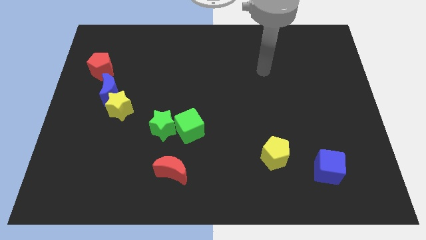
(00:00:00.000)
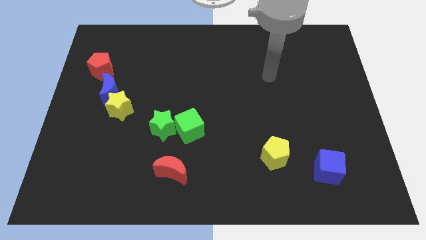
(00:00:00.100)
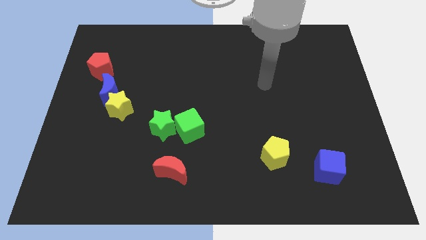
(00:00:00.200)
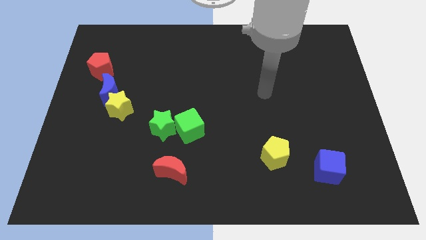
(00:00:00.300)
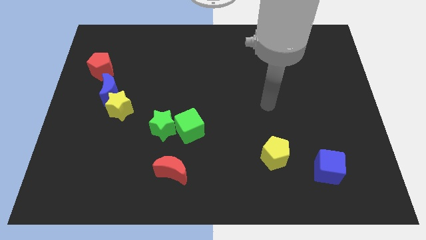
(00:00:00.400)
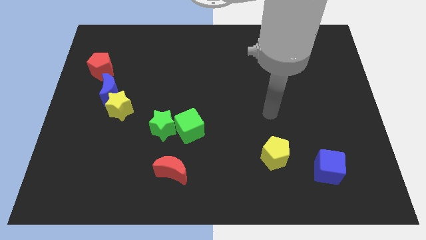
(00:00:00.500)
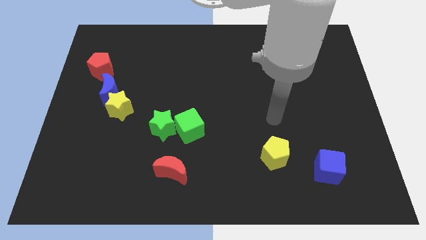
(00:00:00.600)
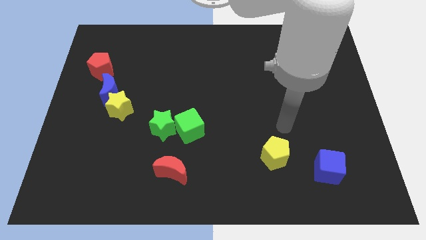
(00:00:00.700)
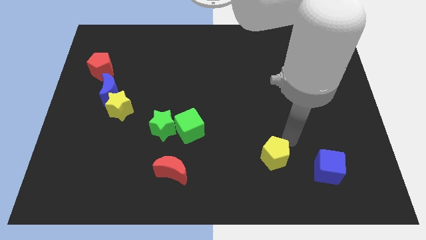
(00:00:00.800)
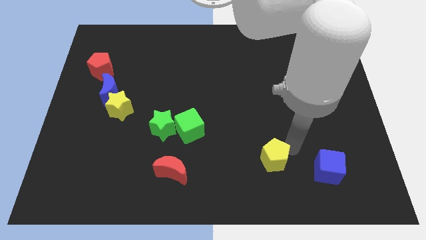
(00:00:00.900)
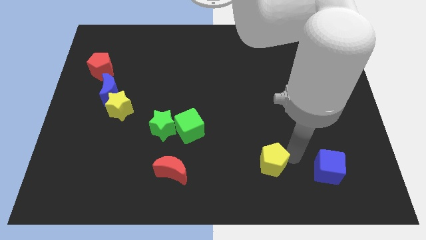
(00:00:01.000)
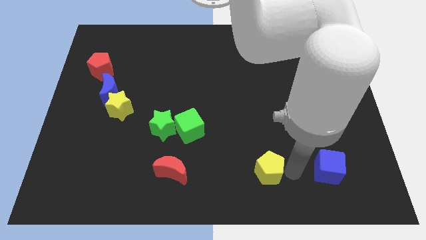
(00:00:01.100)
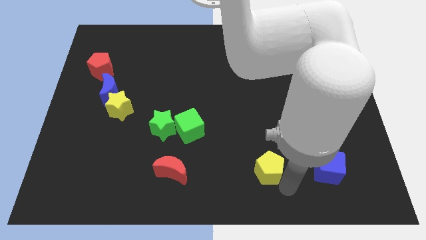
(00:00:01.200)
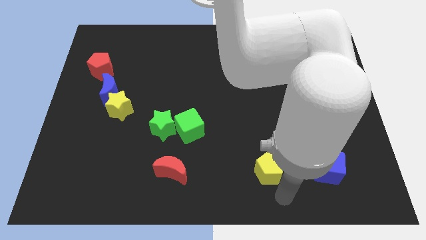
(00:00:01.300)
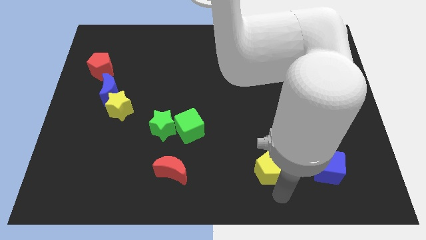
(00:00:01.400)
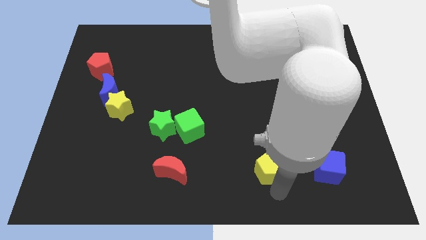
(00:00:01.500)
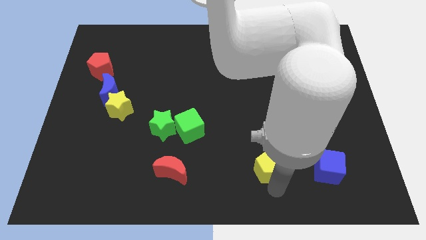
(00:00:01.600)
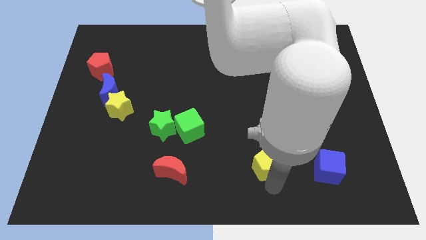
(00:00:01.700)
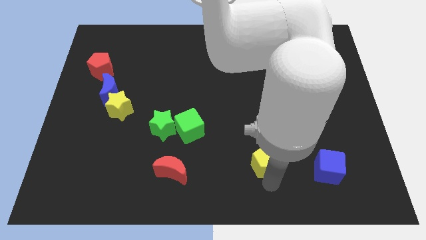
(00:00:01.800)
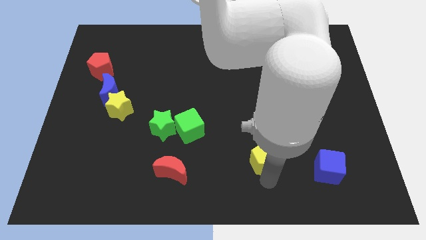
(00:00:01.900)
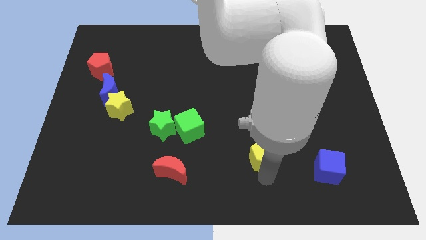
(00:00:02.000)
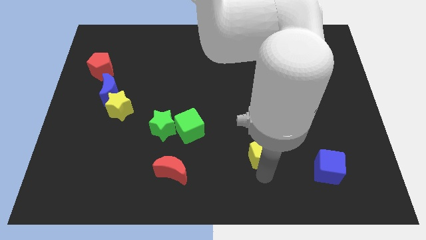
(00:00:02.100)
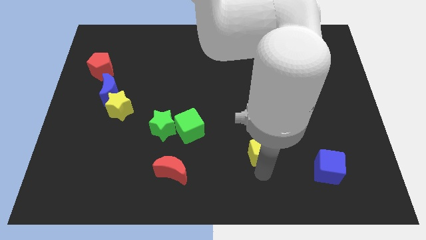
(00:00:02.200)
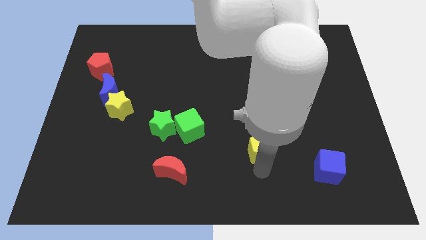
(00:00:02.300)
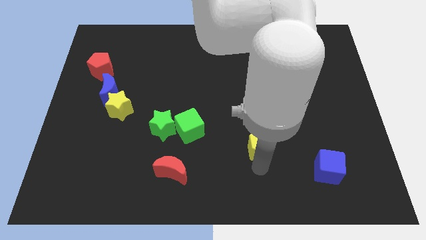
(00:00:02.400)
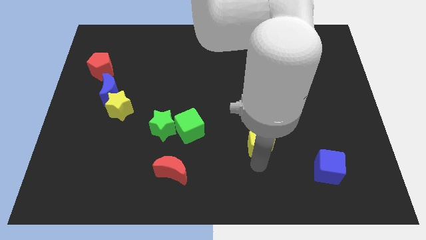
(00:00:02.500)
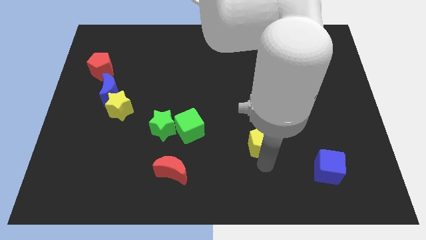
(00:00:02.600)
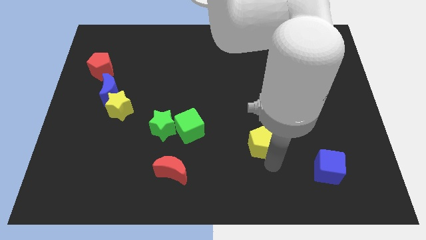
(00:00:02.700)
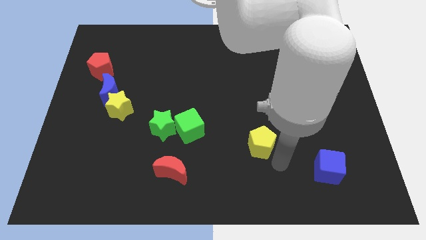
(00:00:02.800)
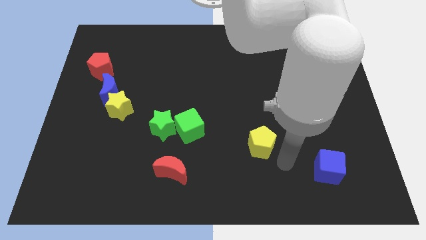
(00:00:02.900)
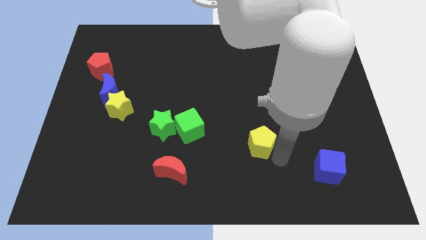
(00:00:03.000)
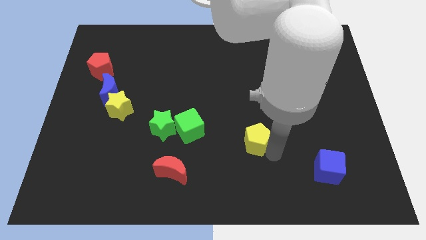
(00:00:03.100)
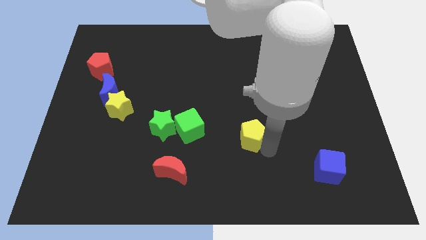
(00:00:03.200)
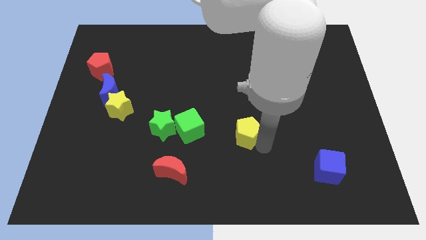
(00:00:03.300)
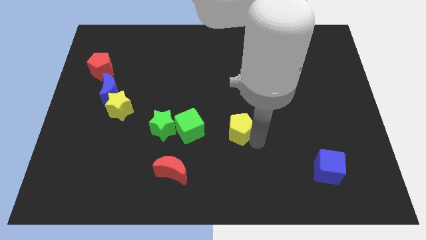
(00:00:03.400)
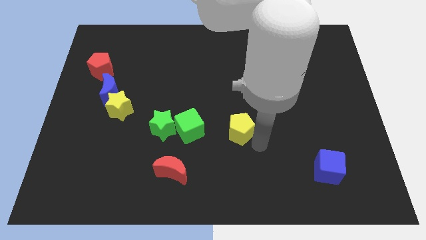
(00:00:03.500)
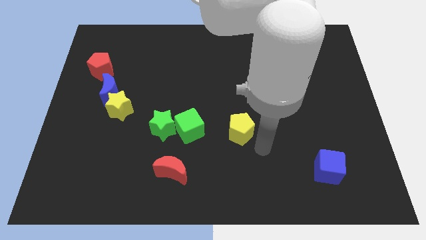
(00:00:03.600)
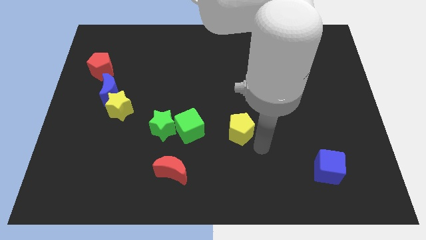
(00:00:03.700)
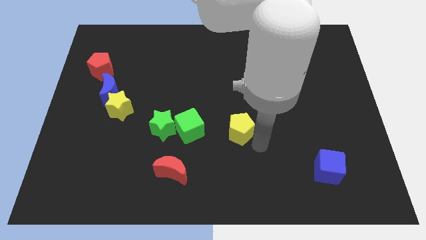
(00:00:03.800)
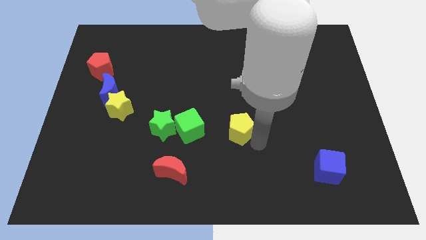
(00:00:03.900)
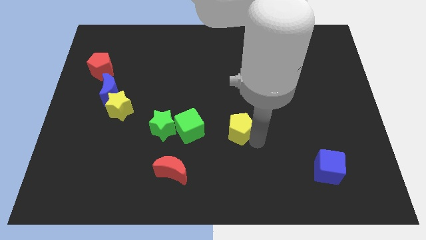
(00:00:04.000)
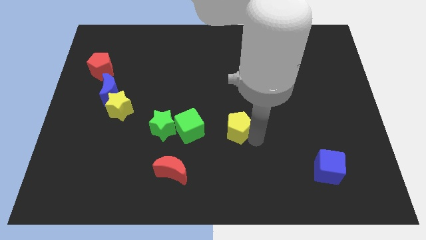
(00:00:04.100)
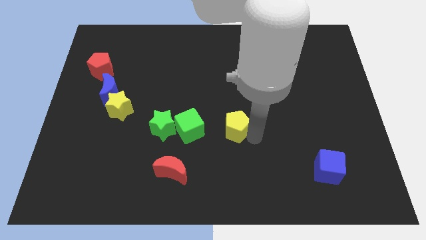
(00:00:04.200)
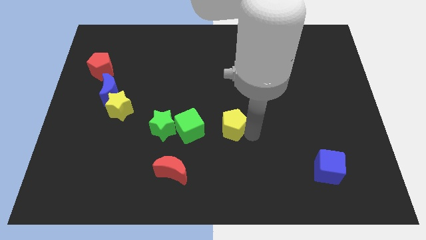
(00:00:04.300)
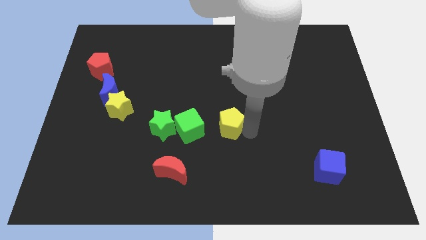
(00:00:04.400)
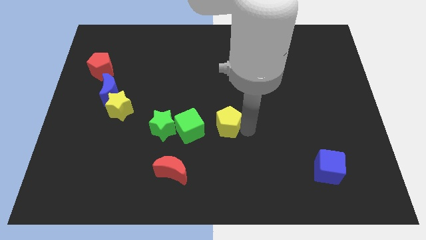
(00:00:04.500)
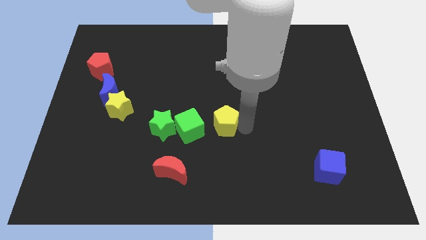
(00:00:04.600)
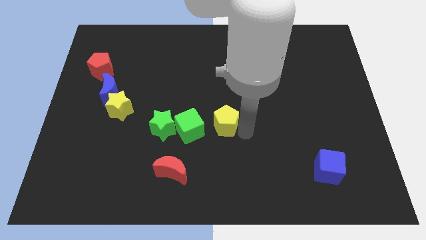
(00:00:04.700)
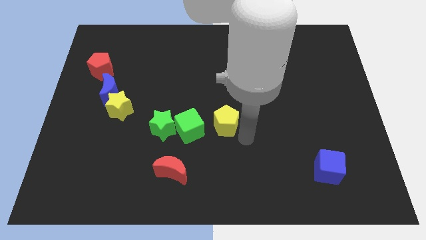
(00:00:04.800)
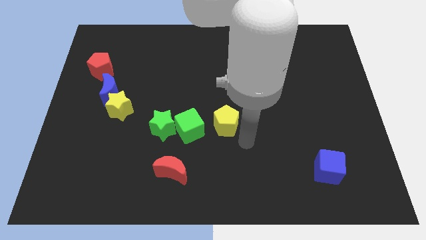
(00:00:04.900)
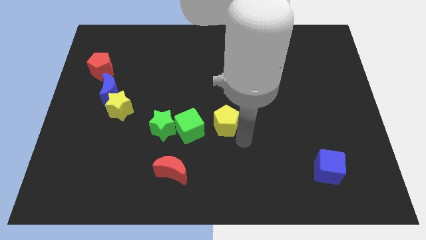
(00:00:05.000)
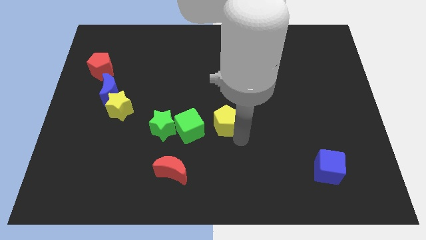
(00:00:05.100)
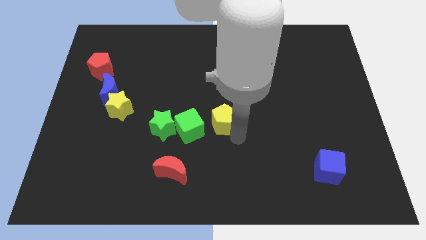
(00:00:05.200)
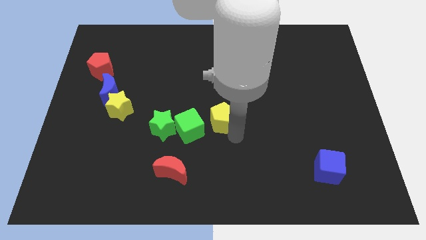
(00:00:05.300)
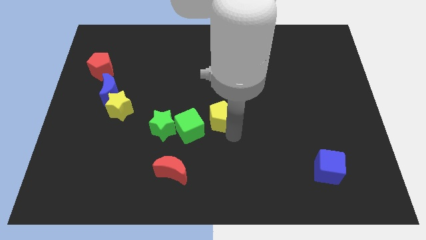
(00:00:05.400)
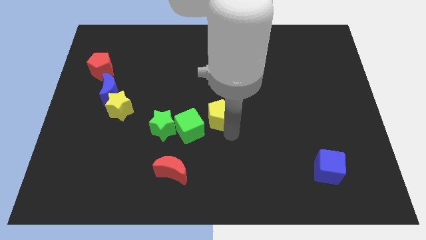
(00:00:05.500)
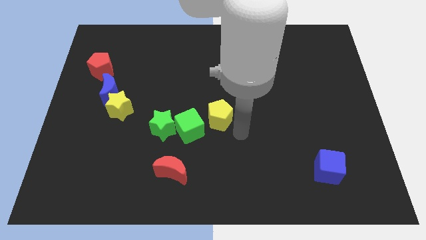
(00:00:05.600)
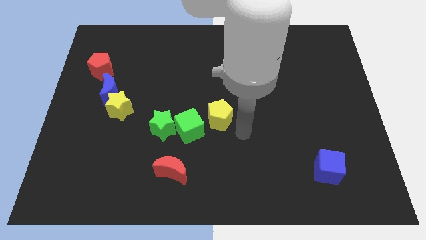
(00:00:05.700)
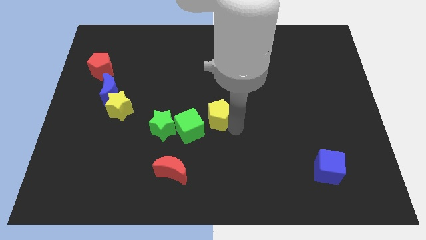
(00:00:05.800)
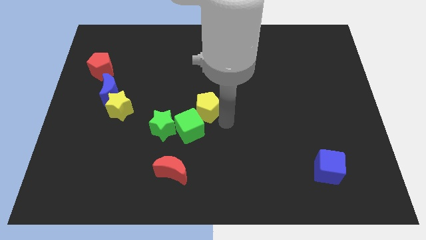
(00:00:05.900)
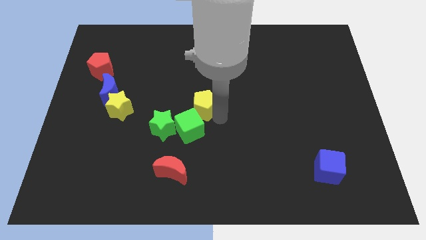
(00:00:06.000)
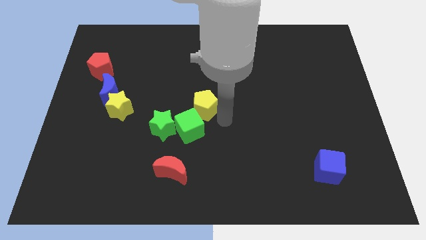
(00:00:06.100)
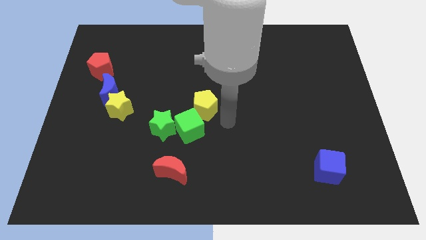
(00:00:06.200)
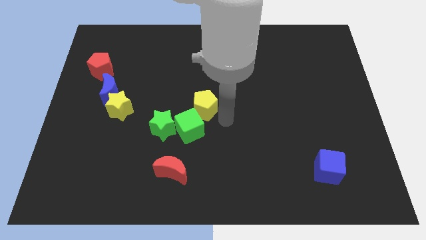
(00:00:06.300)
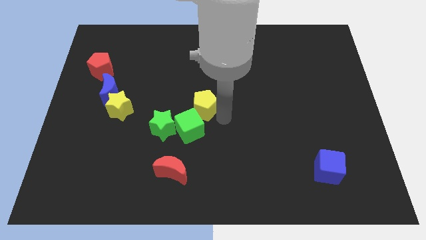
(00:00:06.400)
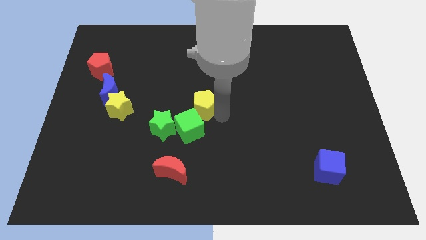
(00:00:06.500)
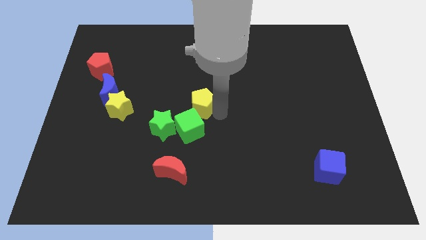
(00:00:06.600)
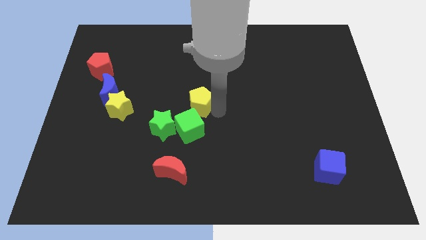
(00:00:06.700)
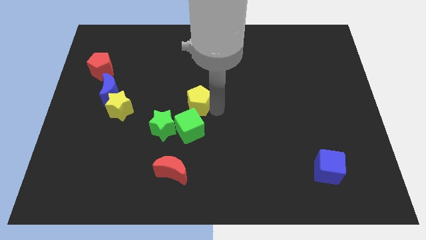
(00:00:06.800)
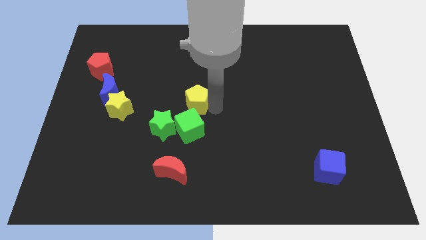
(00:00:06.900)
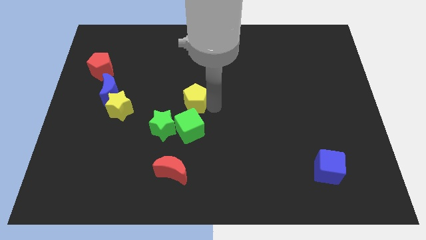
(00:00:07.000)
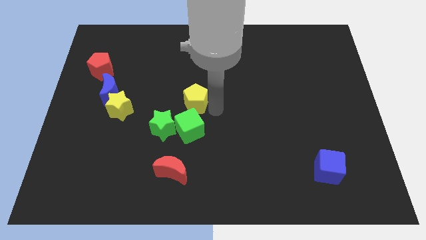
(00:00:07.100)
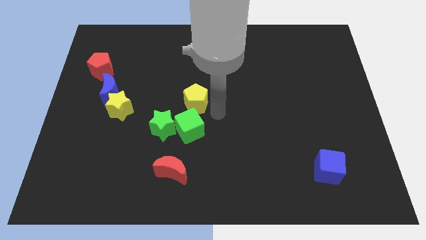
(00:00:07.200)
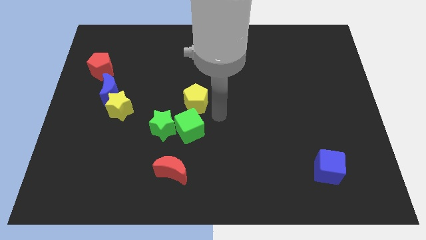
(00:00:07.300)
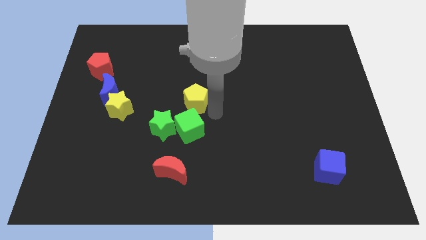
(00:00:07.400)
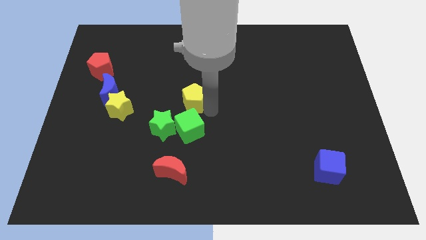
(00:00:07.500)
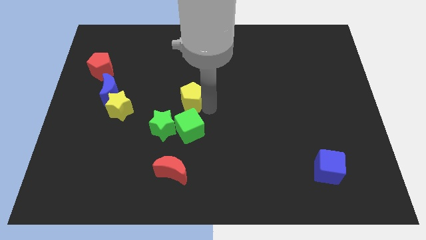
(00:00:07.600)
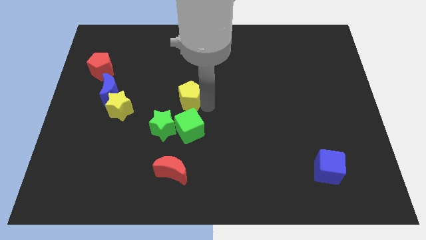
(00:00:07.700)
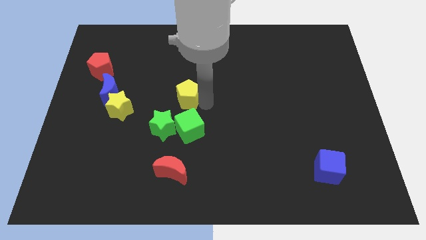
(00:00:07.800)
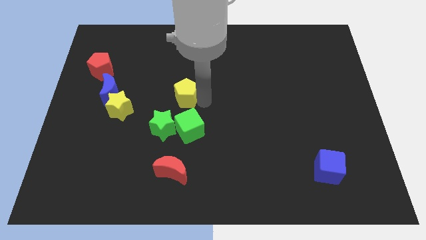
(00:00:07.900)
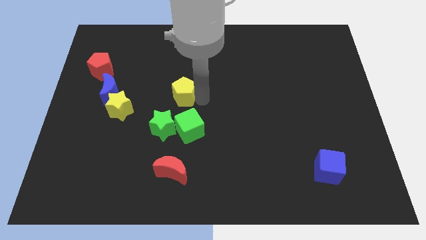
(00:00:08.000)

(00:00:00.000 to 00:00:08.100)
move the yellow pentagon to the top side of the green star

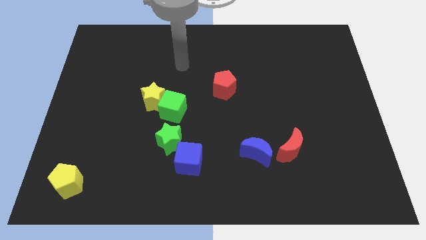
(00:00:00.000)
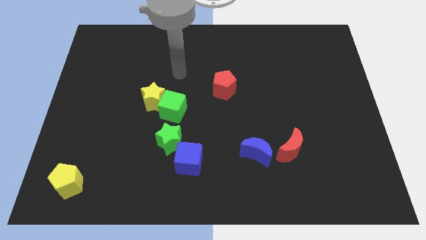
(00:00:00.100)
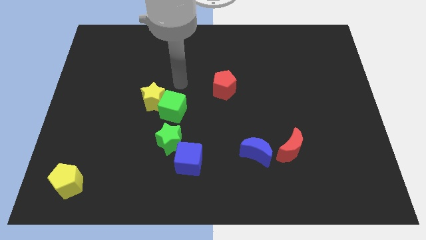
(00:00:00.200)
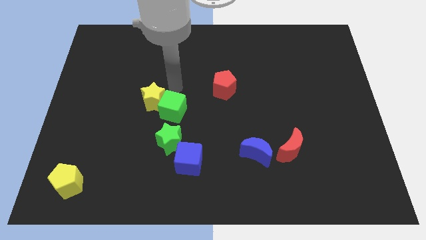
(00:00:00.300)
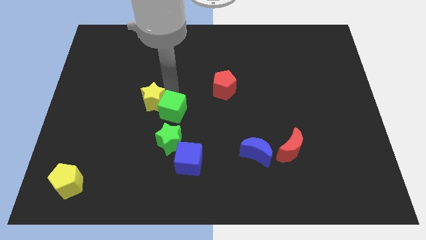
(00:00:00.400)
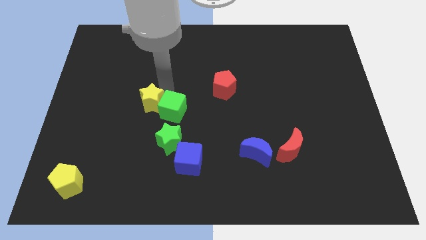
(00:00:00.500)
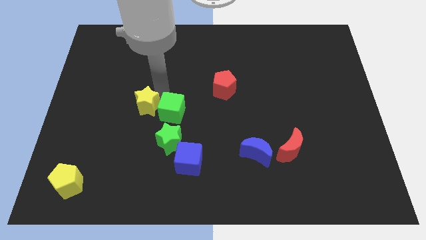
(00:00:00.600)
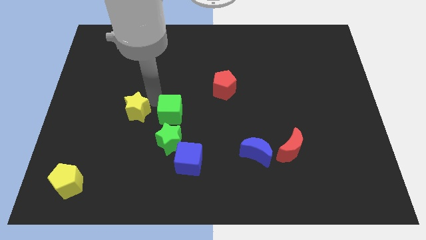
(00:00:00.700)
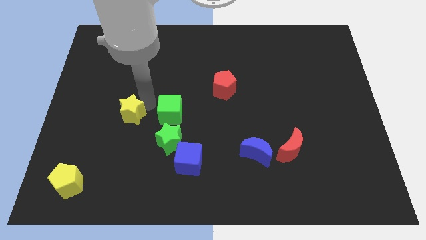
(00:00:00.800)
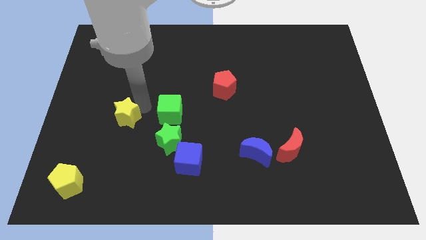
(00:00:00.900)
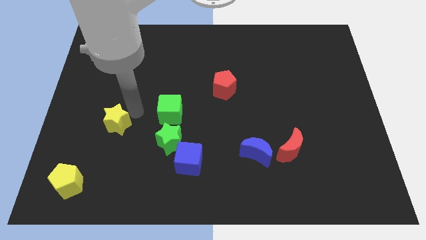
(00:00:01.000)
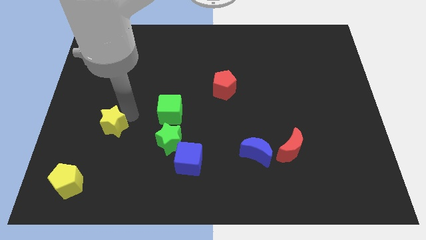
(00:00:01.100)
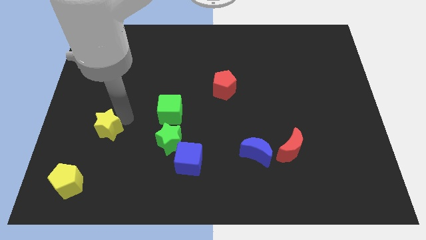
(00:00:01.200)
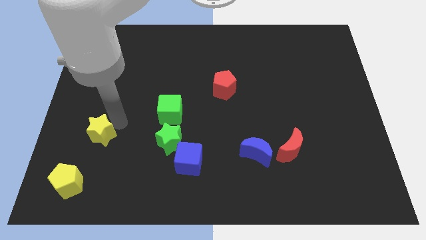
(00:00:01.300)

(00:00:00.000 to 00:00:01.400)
slide the yellow star to the top of the yellow pentagon
